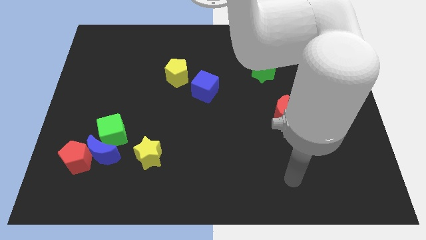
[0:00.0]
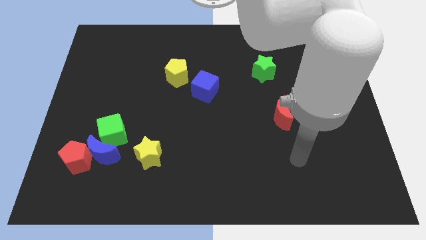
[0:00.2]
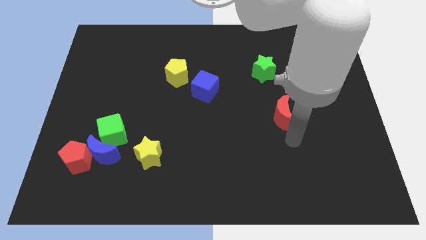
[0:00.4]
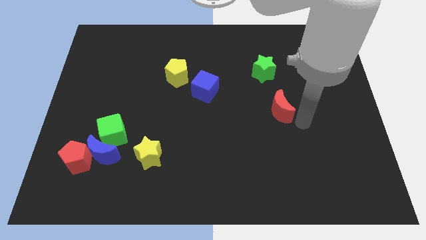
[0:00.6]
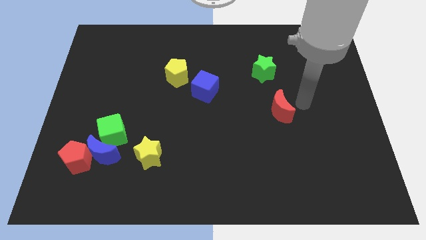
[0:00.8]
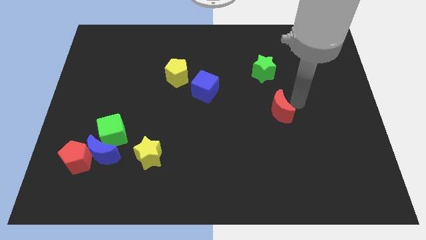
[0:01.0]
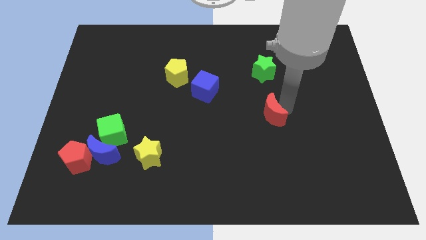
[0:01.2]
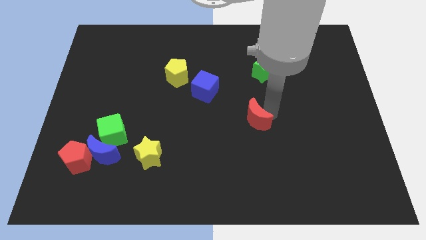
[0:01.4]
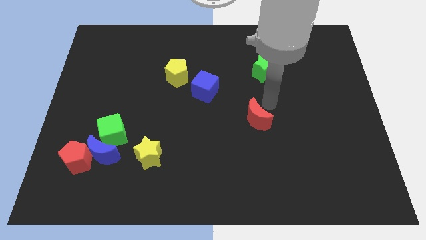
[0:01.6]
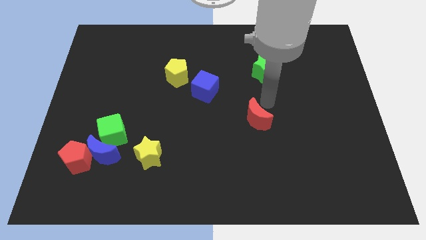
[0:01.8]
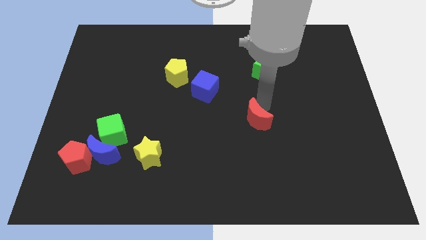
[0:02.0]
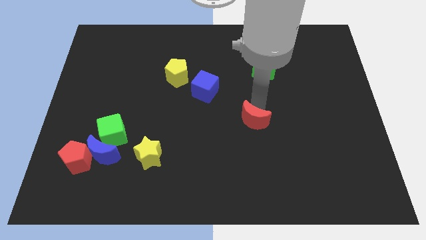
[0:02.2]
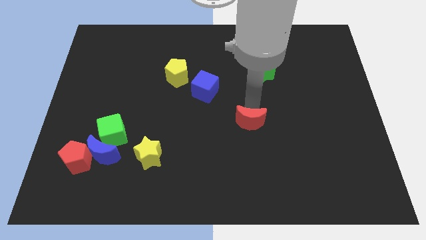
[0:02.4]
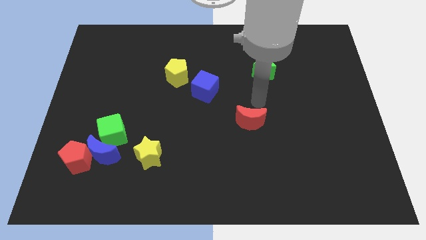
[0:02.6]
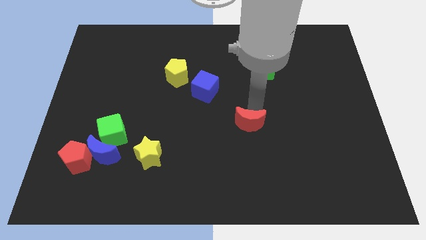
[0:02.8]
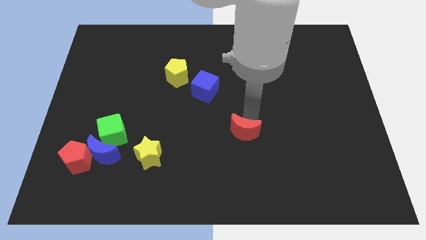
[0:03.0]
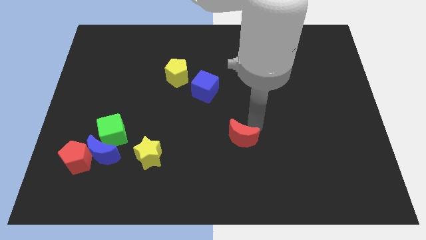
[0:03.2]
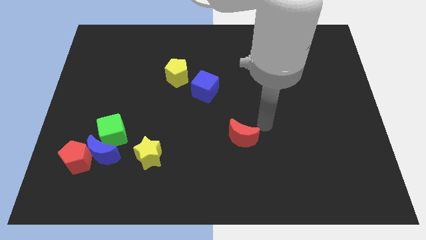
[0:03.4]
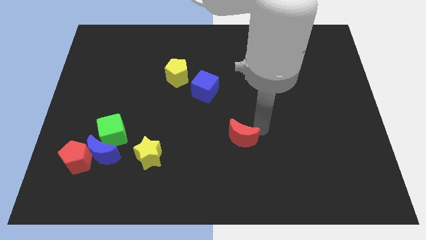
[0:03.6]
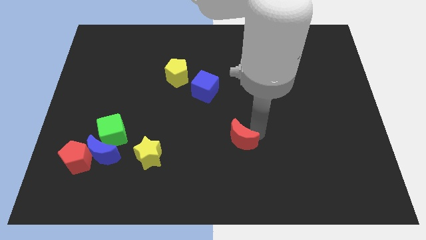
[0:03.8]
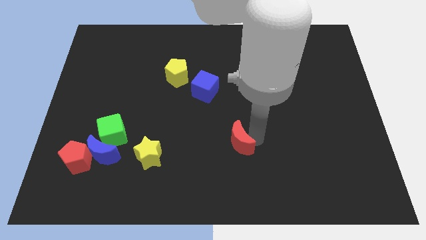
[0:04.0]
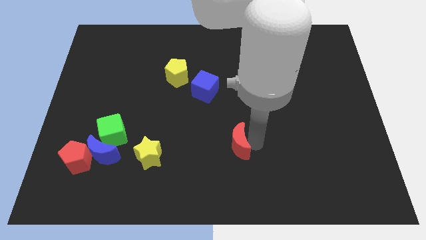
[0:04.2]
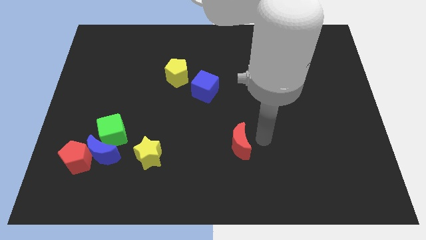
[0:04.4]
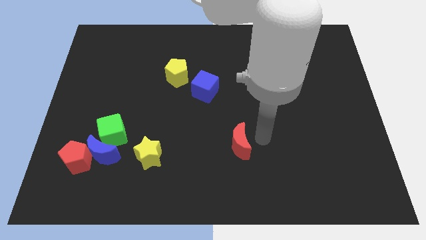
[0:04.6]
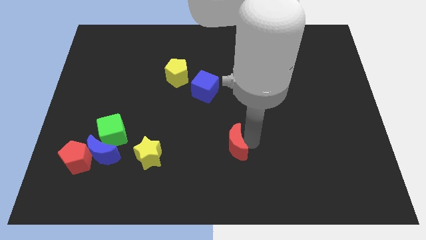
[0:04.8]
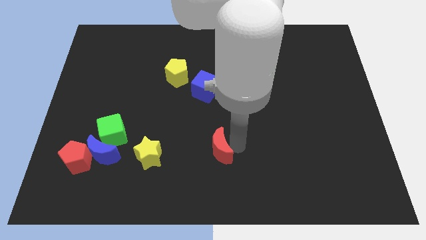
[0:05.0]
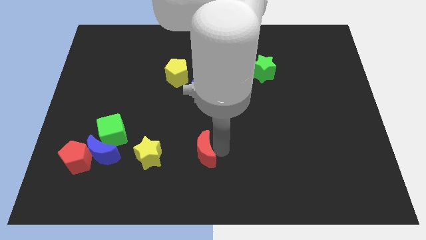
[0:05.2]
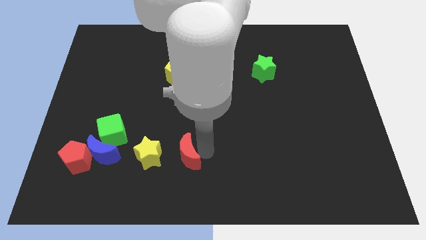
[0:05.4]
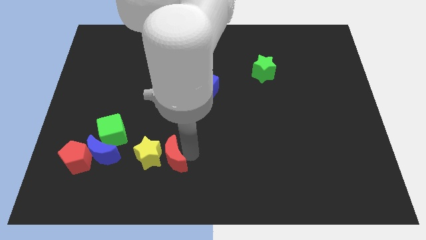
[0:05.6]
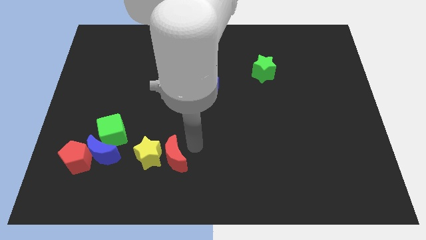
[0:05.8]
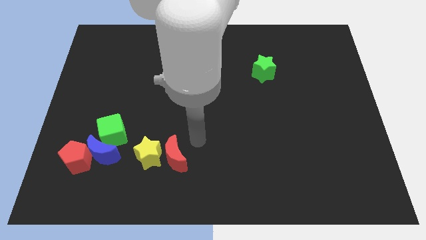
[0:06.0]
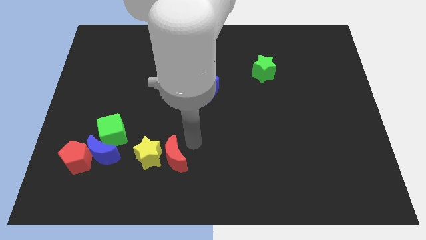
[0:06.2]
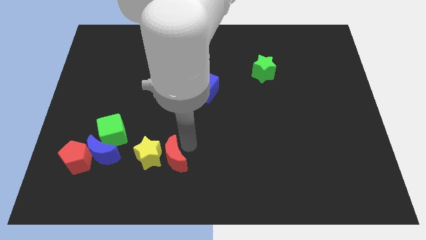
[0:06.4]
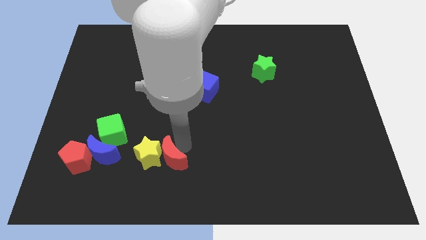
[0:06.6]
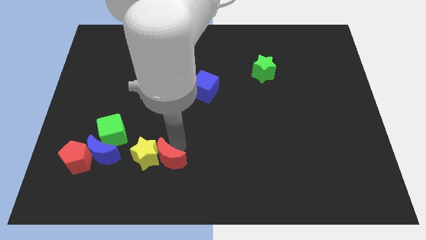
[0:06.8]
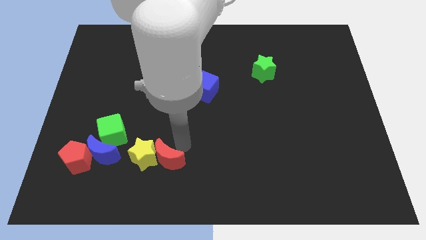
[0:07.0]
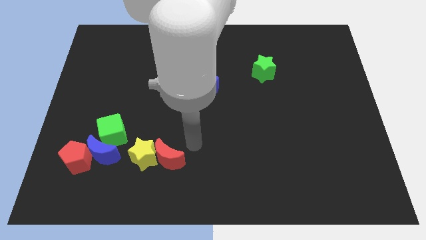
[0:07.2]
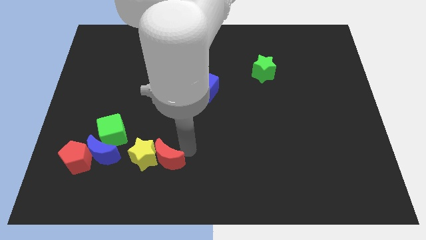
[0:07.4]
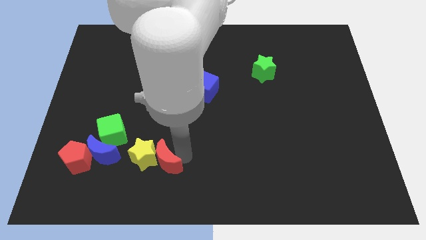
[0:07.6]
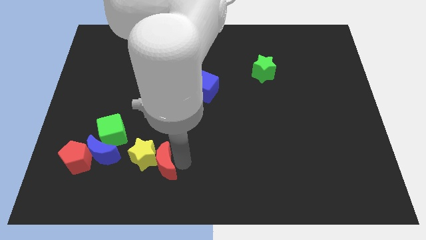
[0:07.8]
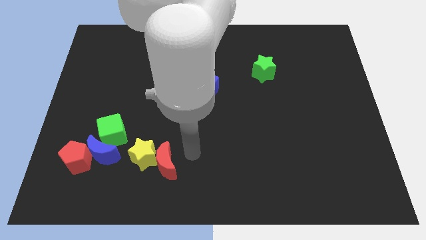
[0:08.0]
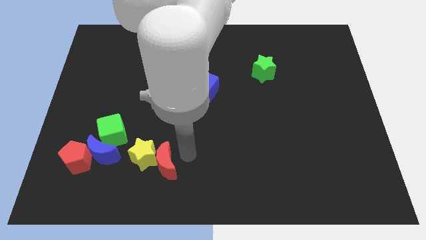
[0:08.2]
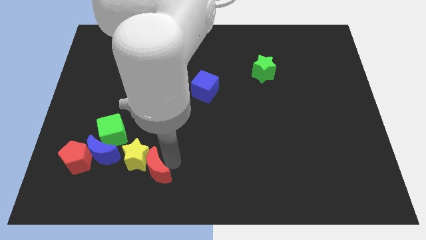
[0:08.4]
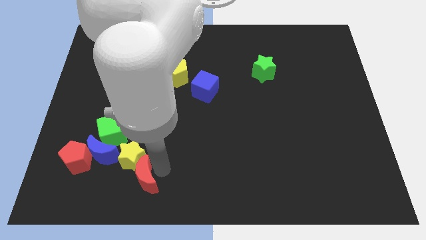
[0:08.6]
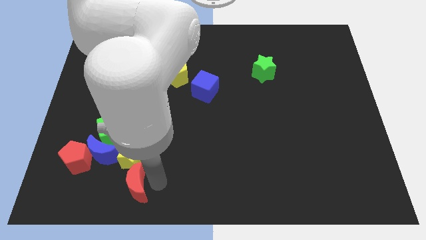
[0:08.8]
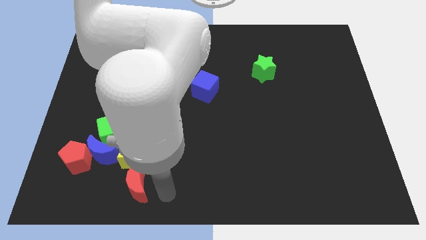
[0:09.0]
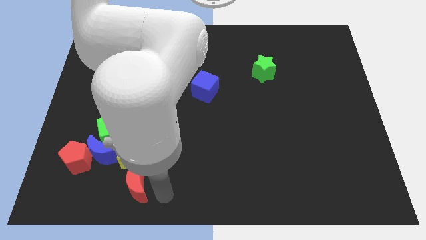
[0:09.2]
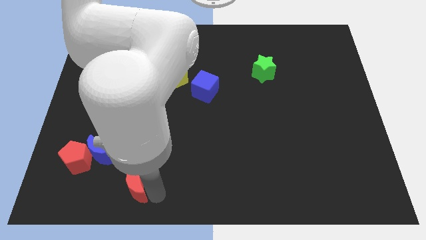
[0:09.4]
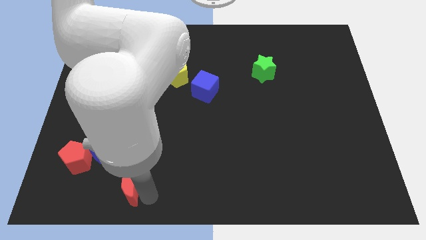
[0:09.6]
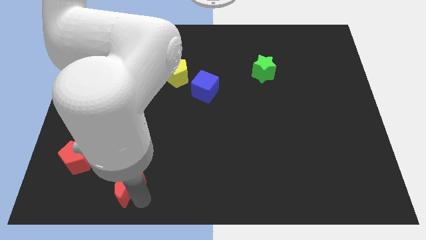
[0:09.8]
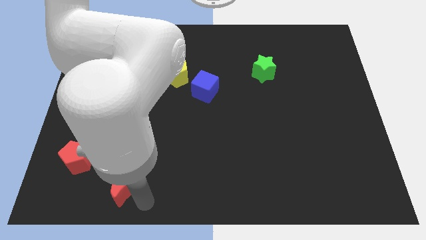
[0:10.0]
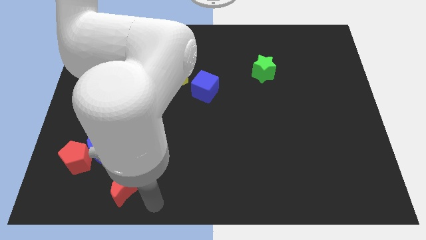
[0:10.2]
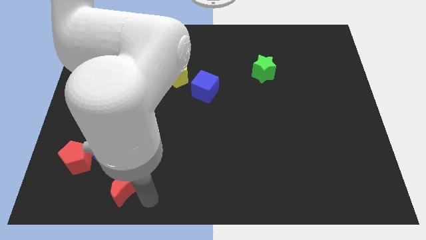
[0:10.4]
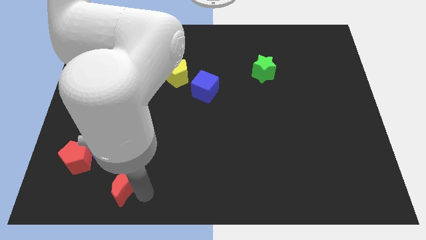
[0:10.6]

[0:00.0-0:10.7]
push the red moon to the bottom of the green cube

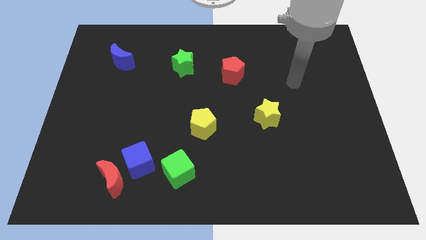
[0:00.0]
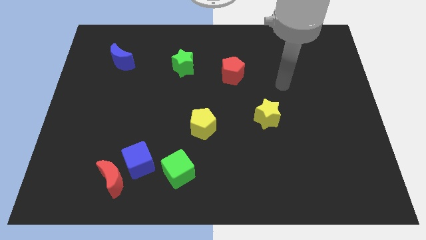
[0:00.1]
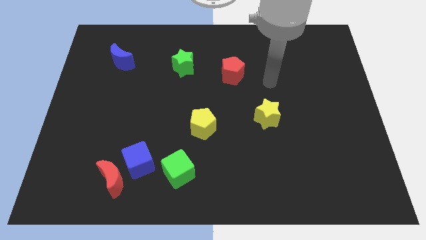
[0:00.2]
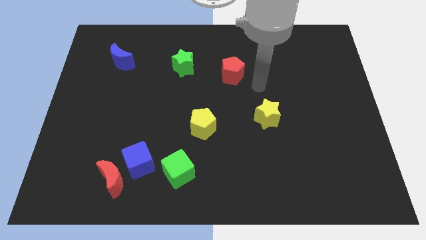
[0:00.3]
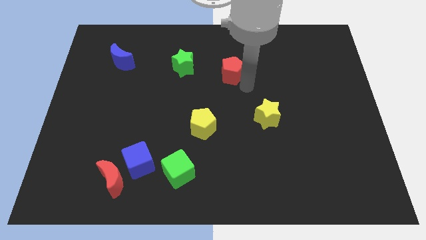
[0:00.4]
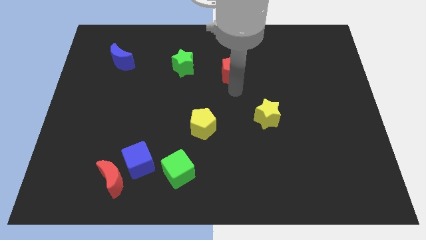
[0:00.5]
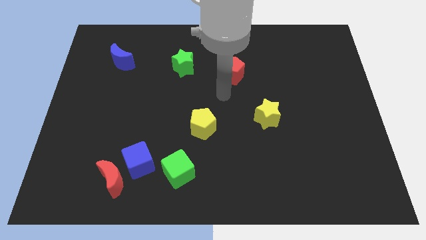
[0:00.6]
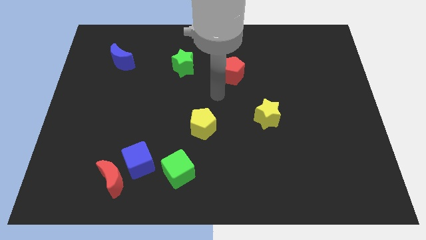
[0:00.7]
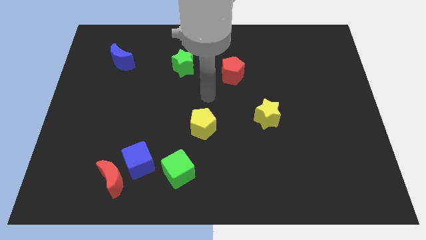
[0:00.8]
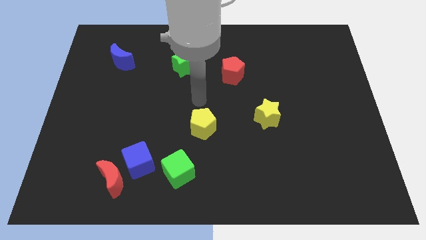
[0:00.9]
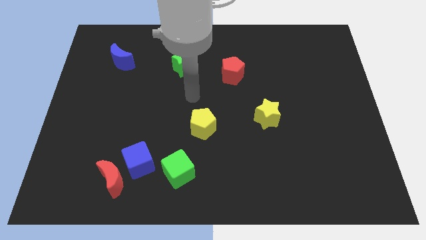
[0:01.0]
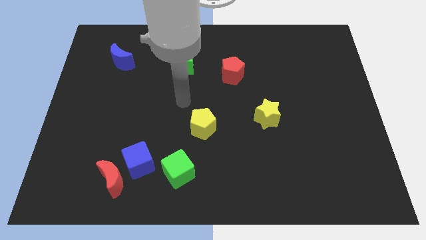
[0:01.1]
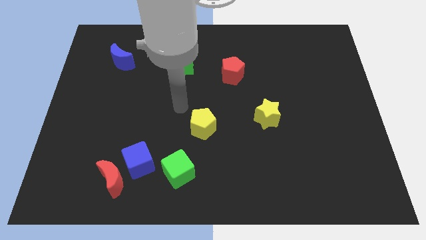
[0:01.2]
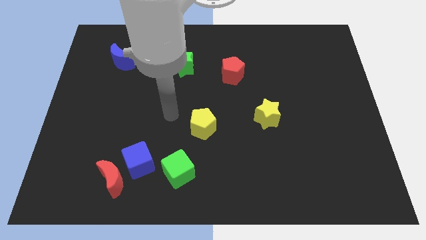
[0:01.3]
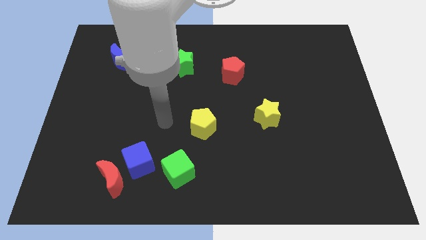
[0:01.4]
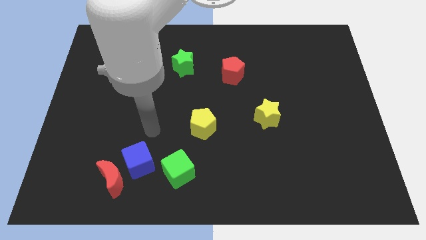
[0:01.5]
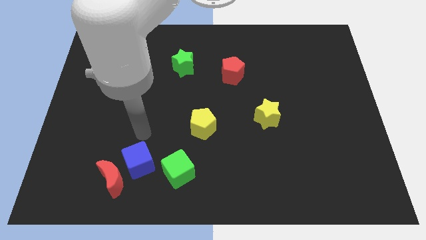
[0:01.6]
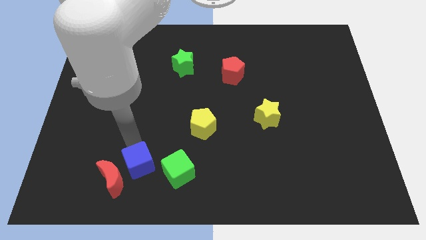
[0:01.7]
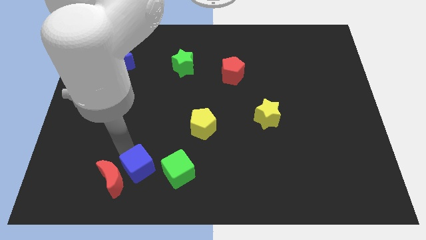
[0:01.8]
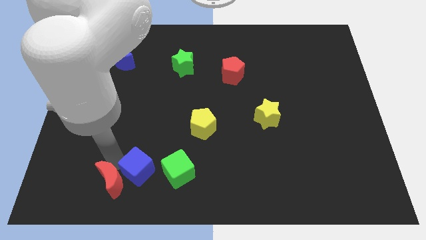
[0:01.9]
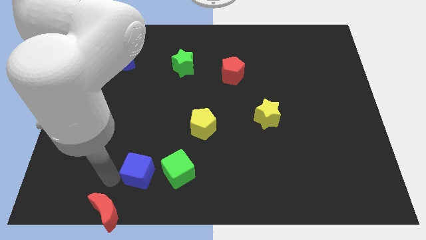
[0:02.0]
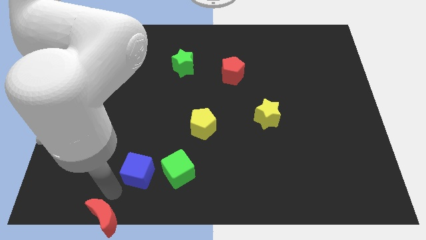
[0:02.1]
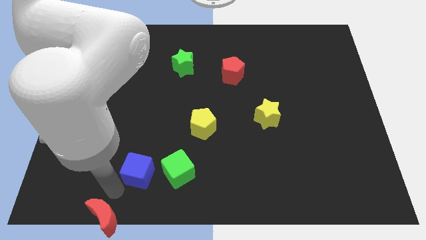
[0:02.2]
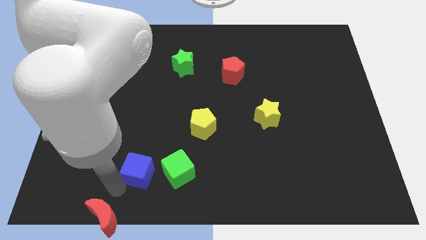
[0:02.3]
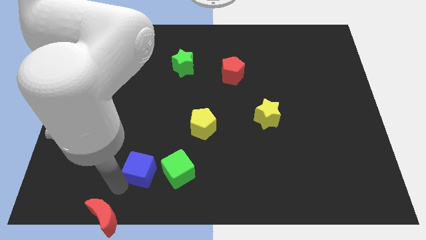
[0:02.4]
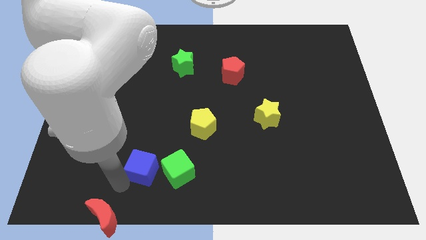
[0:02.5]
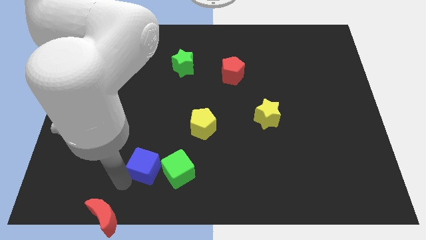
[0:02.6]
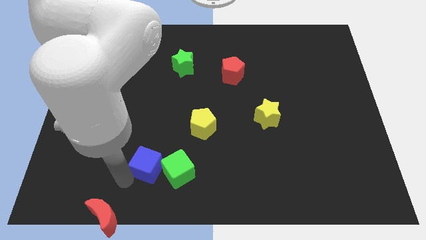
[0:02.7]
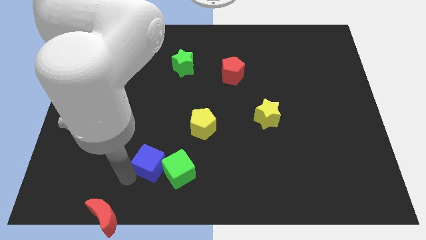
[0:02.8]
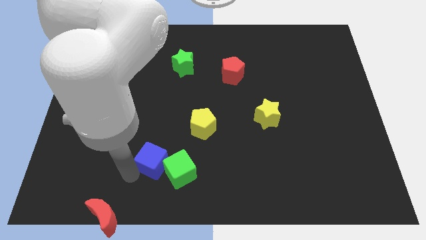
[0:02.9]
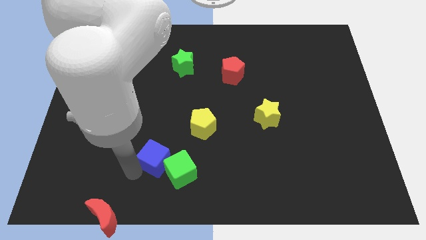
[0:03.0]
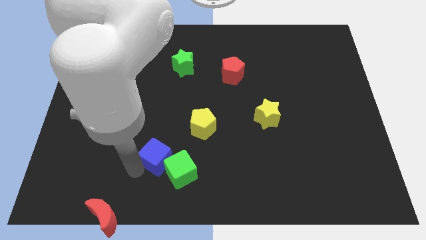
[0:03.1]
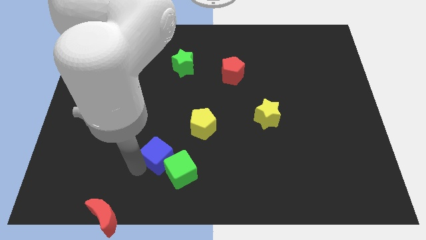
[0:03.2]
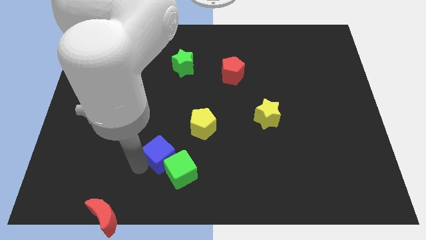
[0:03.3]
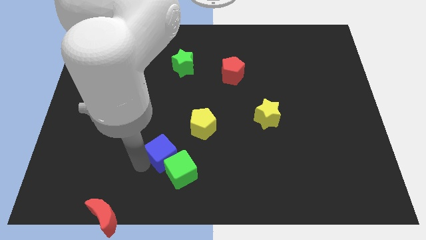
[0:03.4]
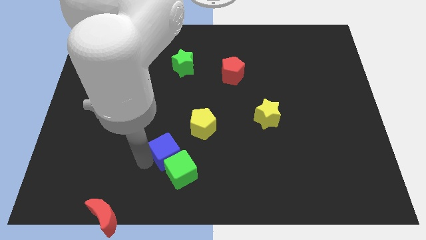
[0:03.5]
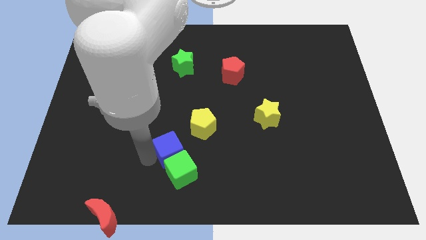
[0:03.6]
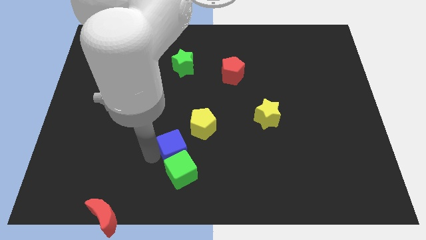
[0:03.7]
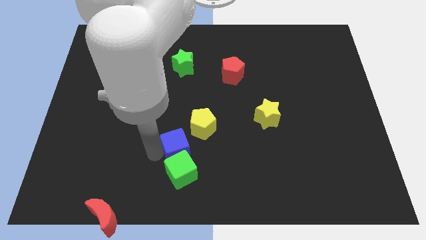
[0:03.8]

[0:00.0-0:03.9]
put the blue cube to the top right side of the green cube
